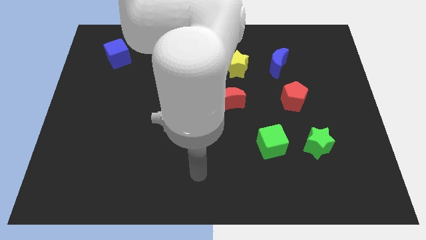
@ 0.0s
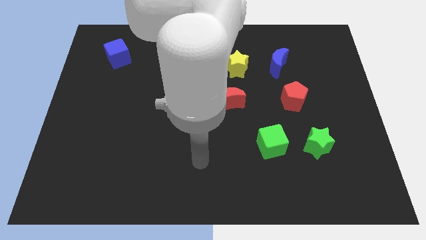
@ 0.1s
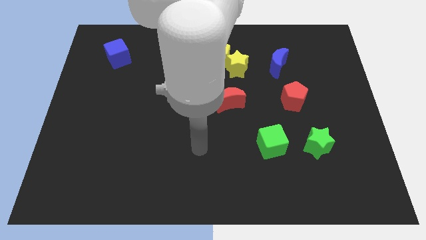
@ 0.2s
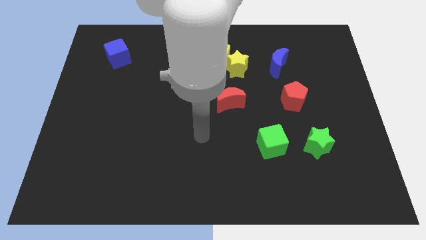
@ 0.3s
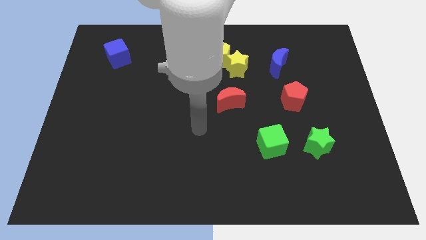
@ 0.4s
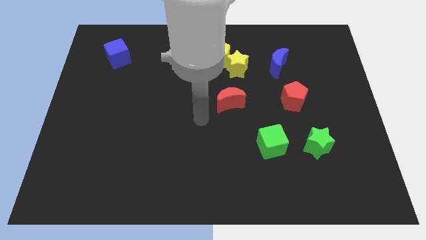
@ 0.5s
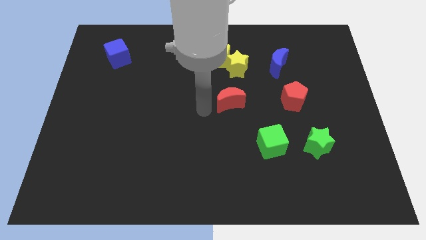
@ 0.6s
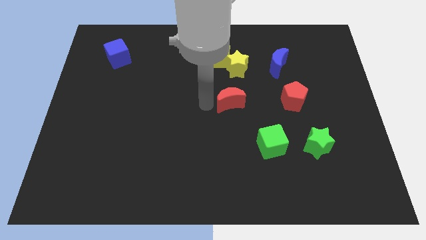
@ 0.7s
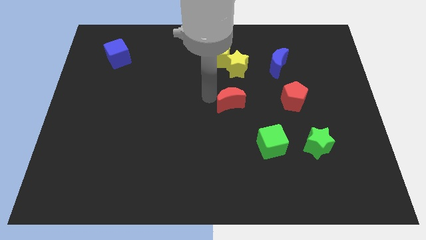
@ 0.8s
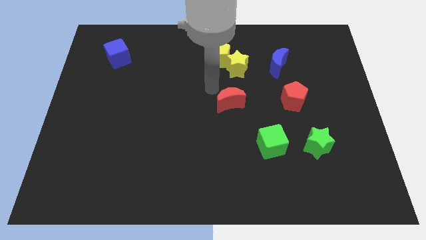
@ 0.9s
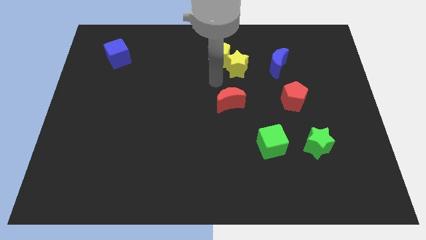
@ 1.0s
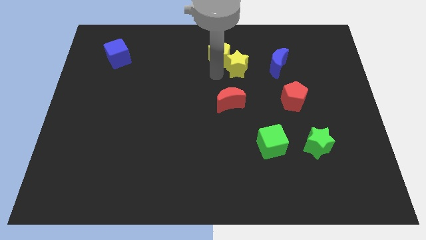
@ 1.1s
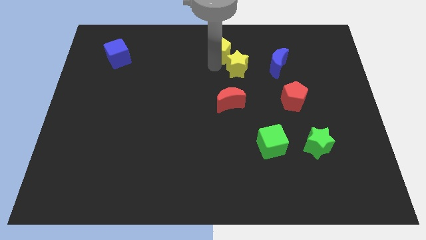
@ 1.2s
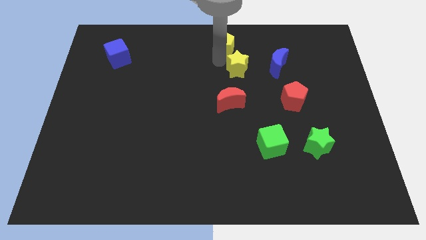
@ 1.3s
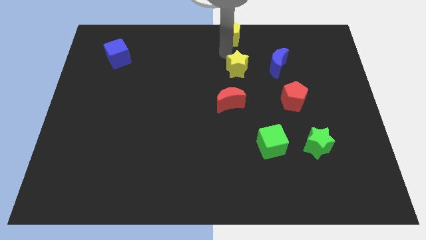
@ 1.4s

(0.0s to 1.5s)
pull the yellow star apart from the yellow pentagon

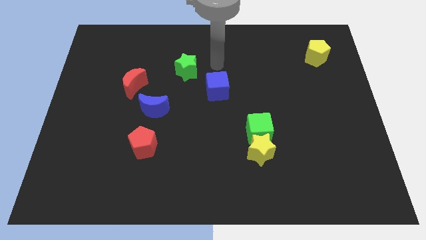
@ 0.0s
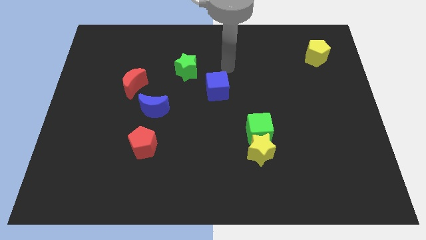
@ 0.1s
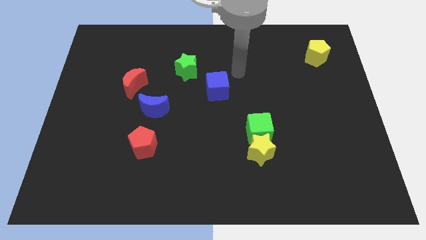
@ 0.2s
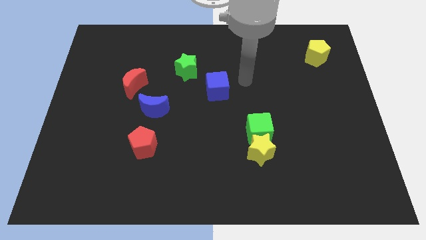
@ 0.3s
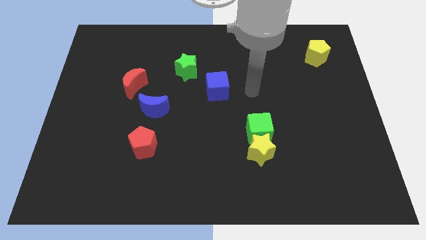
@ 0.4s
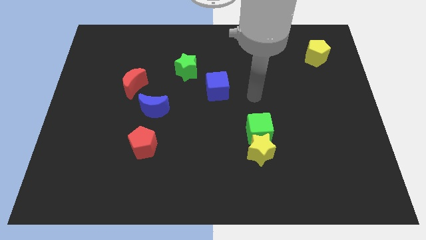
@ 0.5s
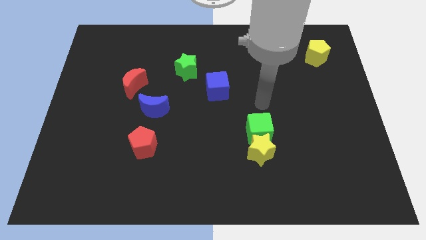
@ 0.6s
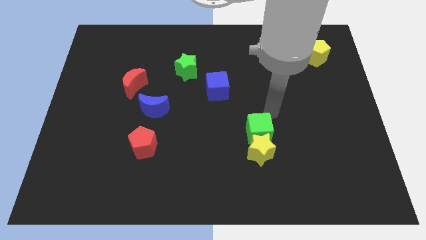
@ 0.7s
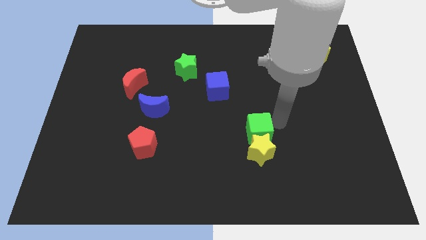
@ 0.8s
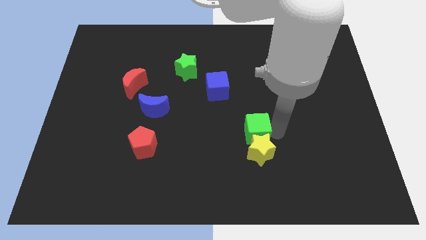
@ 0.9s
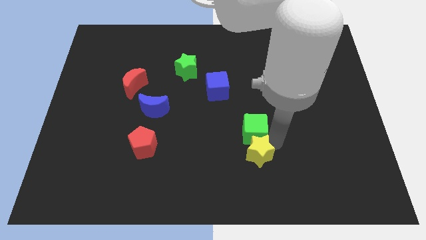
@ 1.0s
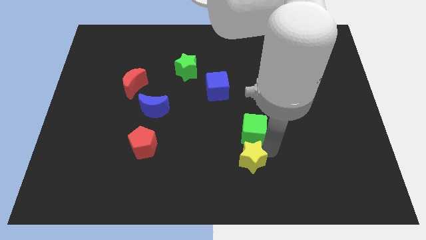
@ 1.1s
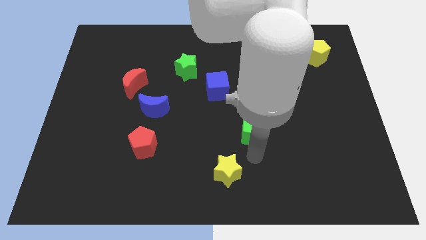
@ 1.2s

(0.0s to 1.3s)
separate the green cube from the yellow star

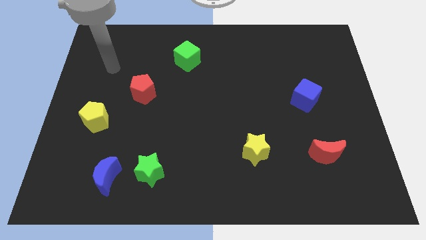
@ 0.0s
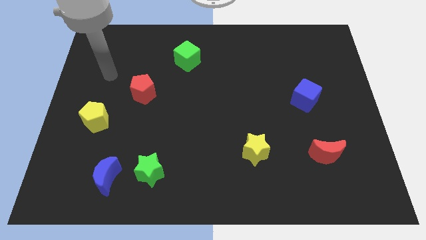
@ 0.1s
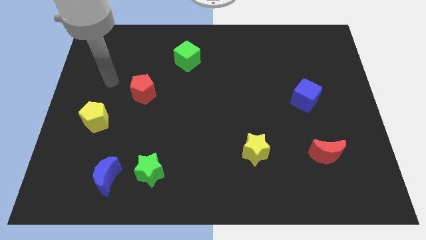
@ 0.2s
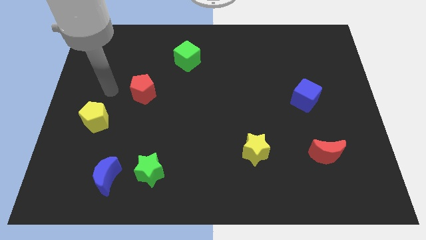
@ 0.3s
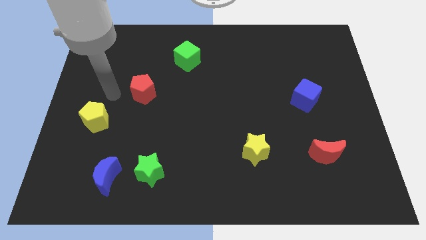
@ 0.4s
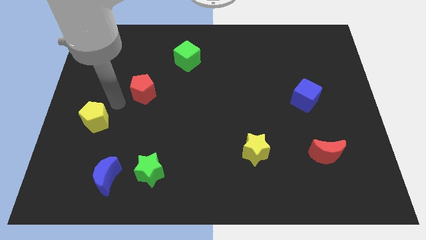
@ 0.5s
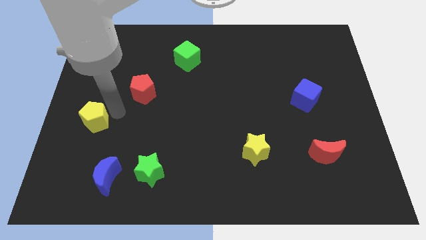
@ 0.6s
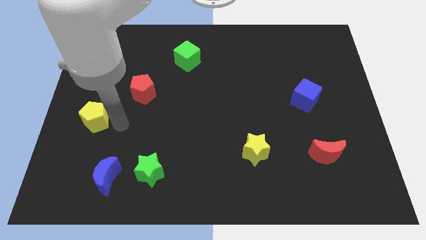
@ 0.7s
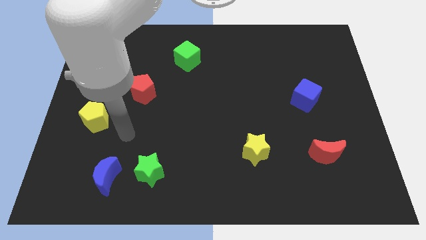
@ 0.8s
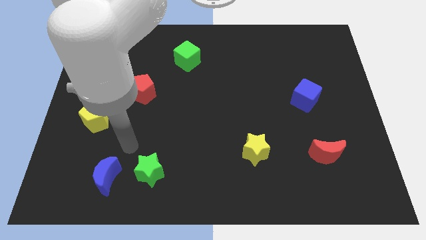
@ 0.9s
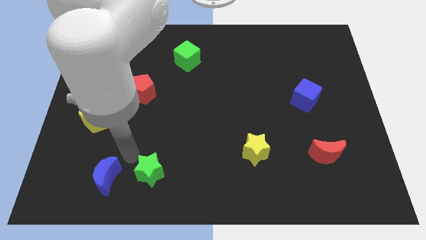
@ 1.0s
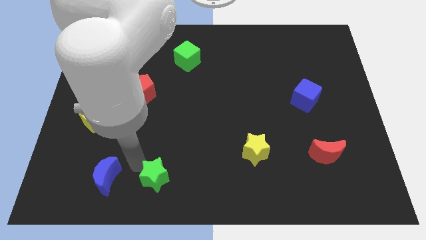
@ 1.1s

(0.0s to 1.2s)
move the blue moon away from the green star

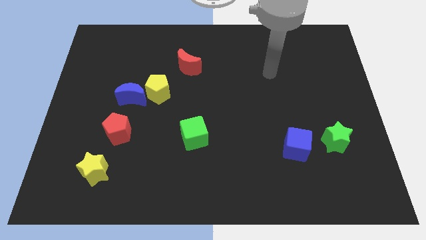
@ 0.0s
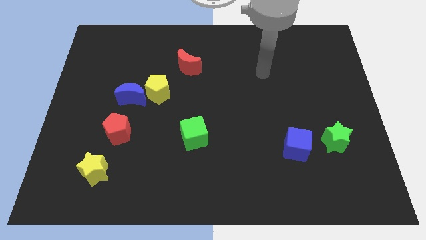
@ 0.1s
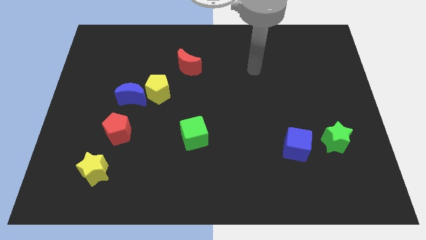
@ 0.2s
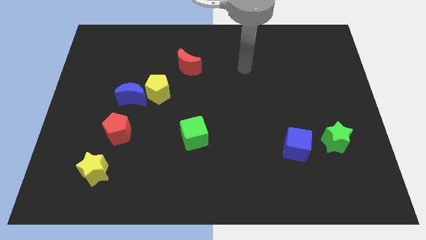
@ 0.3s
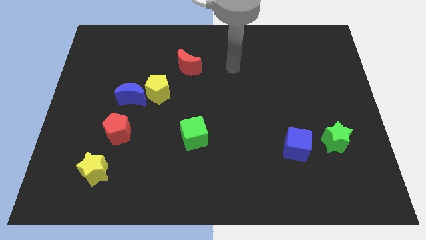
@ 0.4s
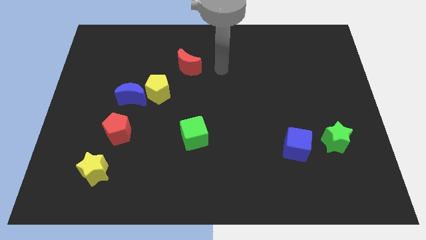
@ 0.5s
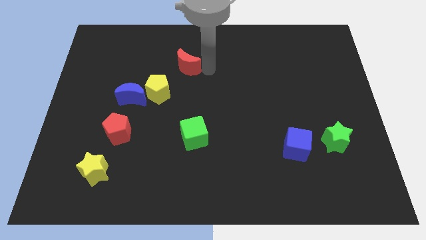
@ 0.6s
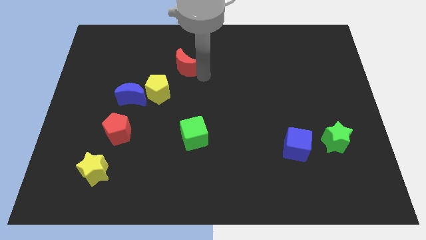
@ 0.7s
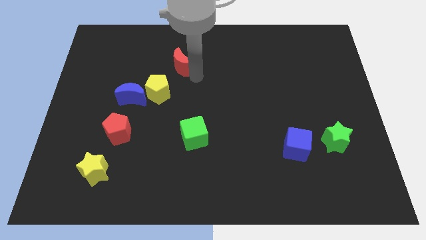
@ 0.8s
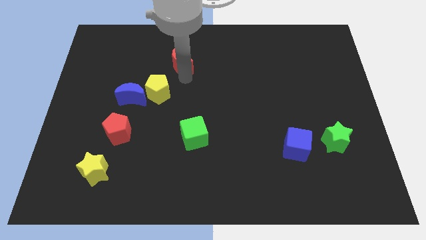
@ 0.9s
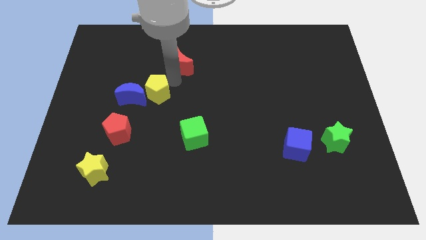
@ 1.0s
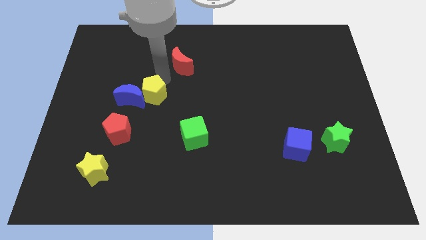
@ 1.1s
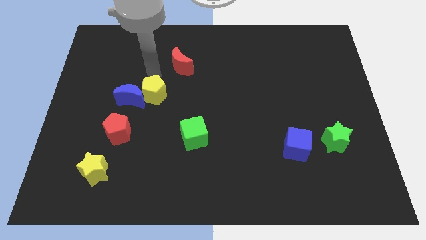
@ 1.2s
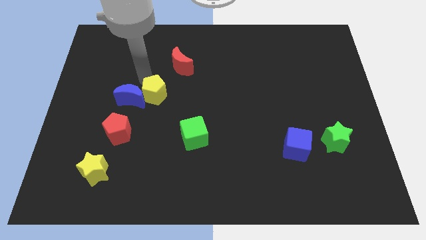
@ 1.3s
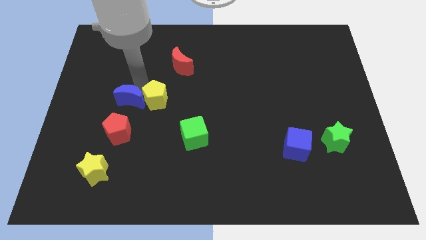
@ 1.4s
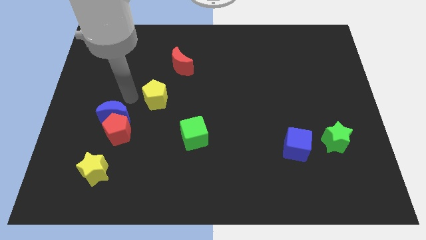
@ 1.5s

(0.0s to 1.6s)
pull the yellow pentagon apart from the blue moon

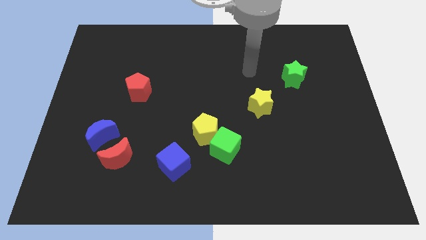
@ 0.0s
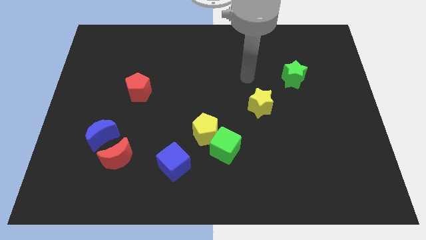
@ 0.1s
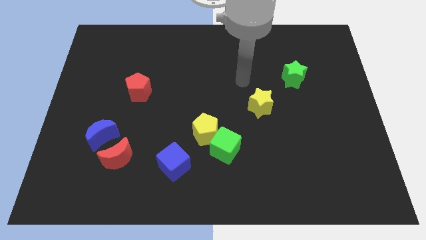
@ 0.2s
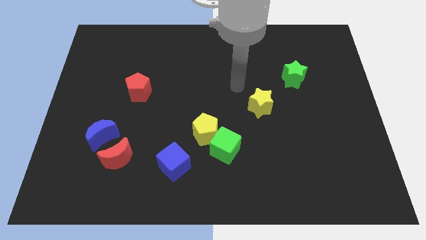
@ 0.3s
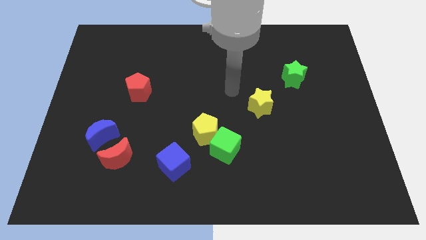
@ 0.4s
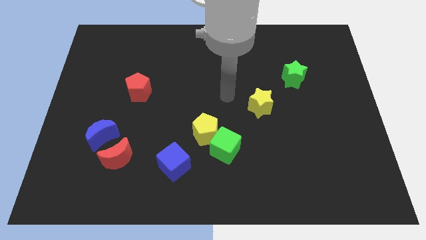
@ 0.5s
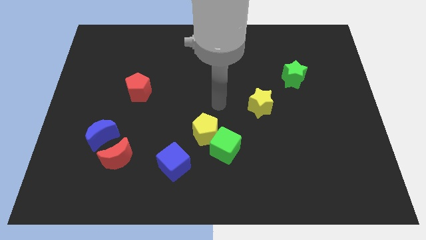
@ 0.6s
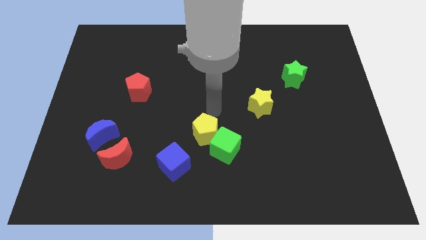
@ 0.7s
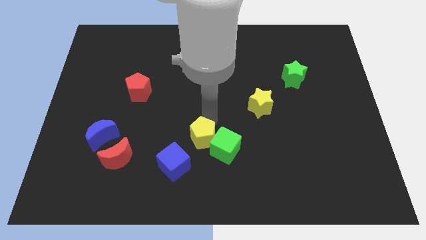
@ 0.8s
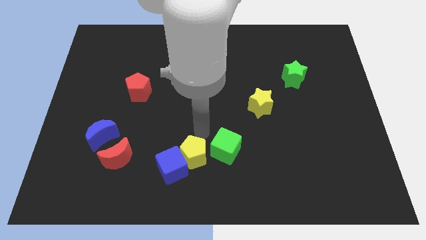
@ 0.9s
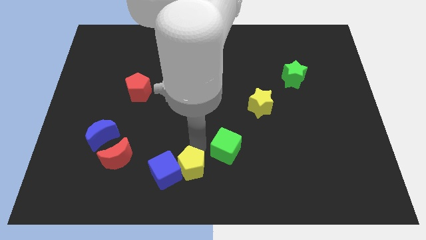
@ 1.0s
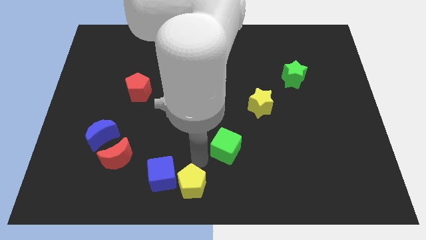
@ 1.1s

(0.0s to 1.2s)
pull the green cube apart from the yellow pentagon

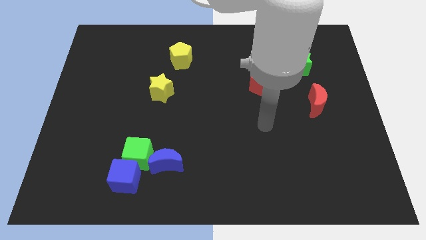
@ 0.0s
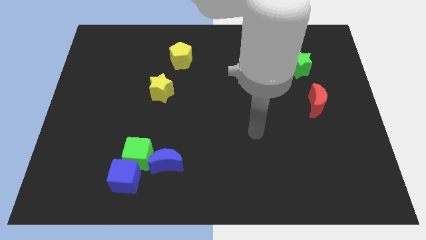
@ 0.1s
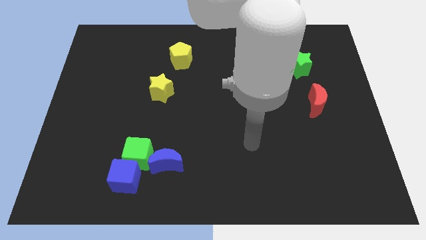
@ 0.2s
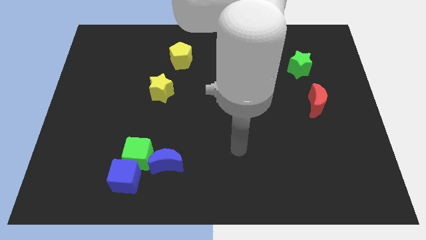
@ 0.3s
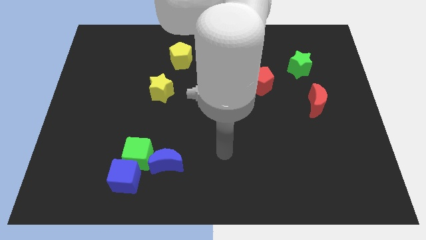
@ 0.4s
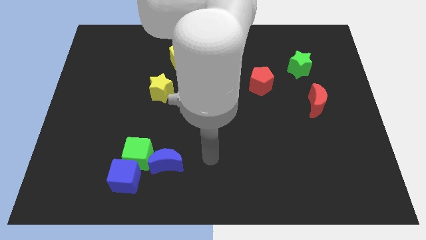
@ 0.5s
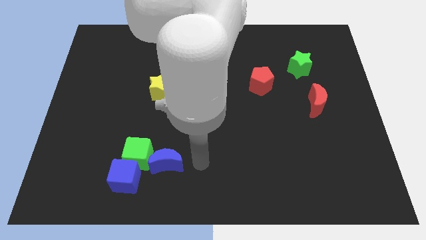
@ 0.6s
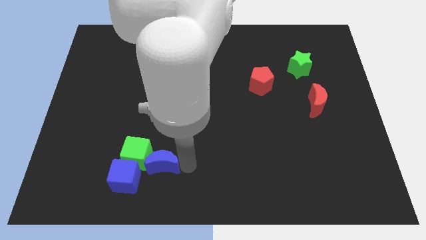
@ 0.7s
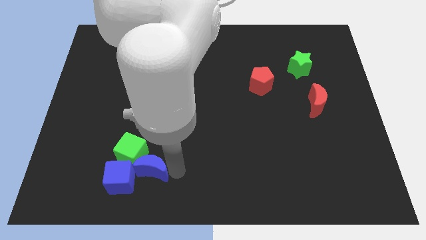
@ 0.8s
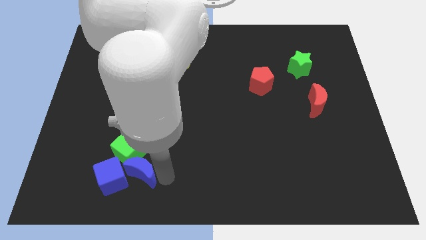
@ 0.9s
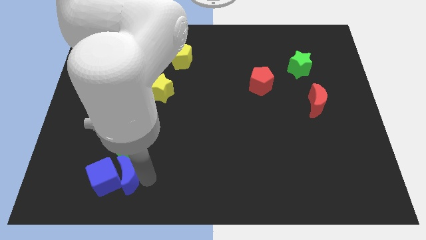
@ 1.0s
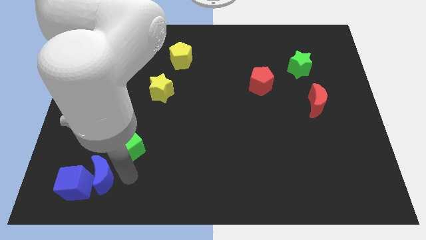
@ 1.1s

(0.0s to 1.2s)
pull the green cube apart from the blue cube and blue moon

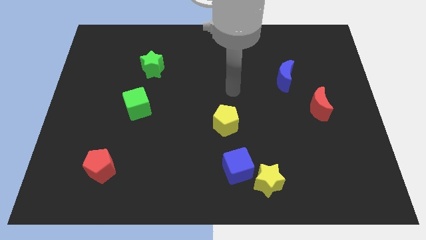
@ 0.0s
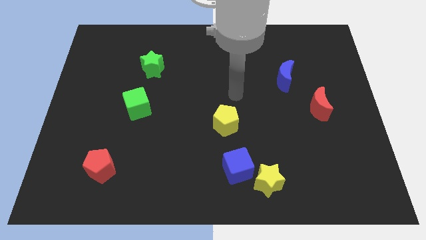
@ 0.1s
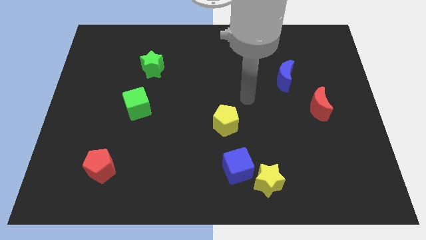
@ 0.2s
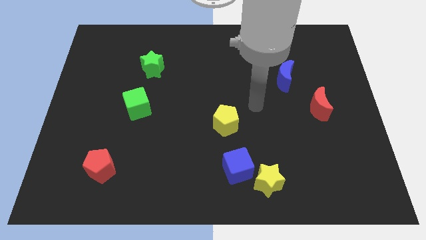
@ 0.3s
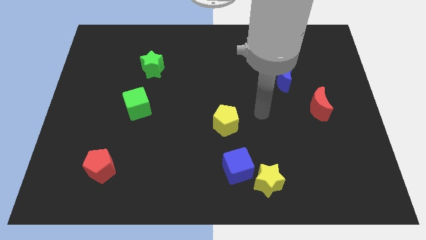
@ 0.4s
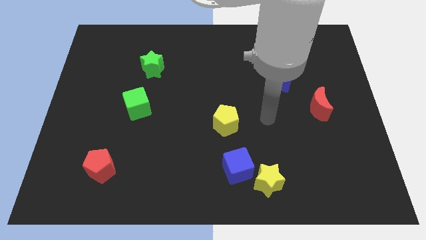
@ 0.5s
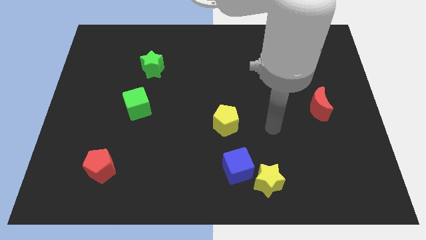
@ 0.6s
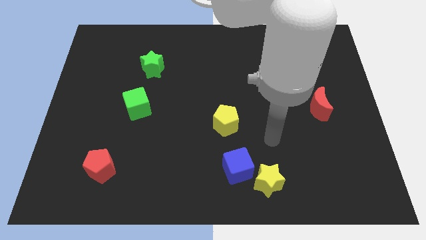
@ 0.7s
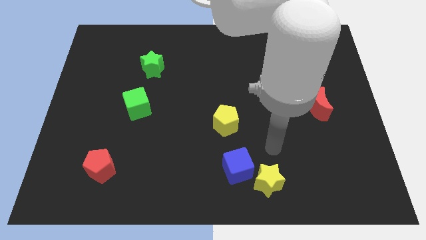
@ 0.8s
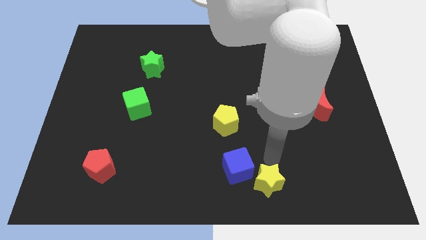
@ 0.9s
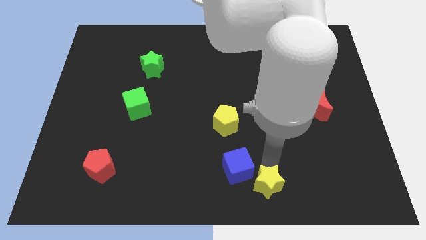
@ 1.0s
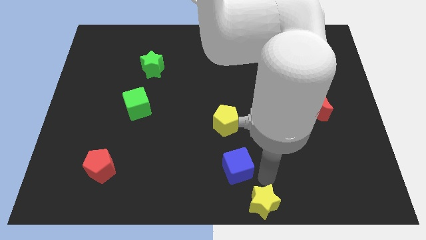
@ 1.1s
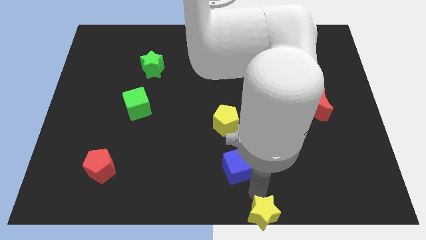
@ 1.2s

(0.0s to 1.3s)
move the blue cube away from the yellow star
